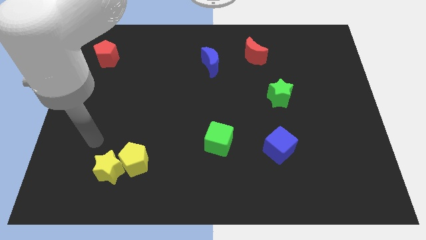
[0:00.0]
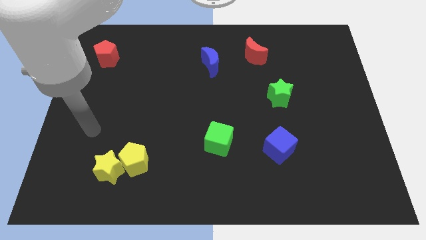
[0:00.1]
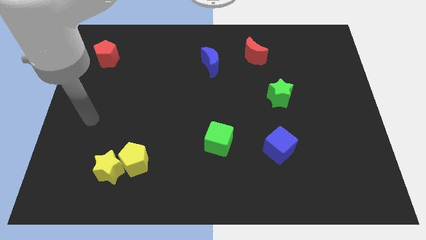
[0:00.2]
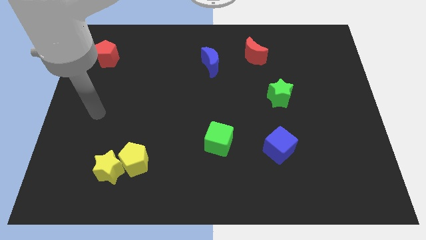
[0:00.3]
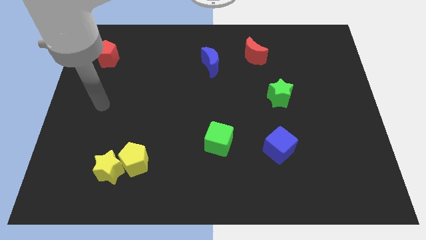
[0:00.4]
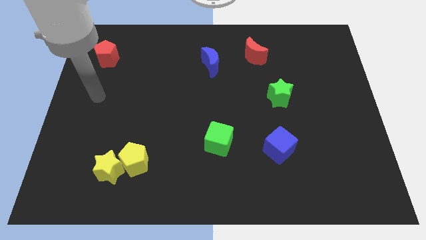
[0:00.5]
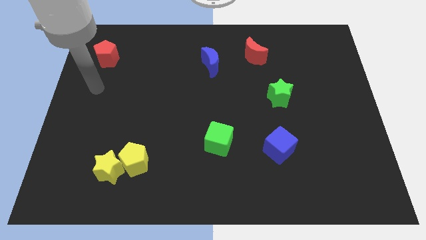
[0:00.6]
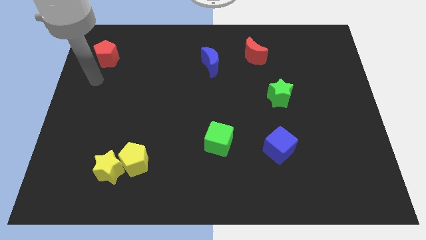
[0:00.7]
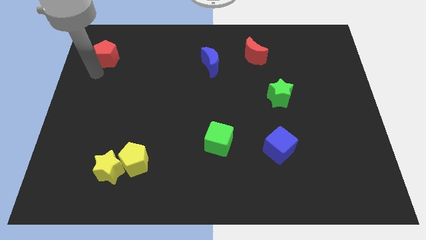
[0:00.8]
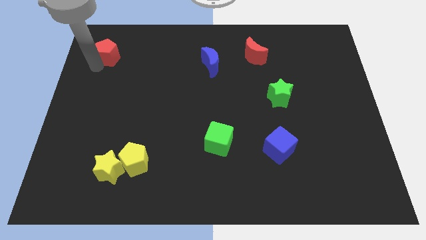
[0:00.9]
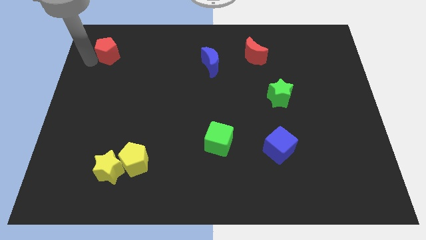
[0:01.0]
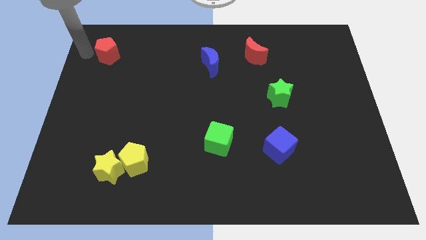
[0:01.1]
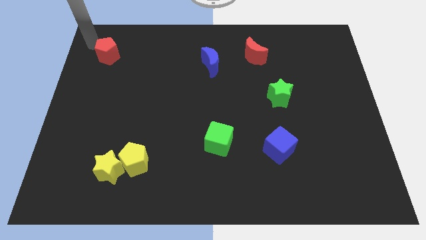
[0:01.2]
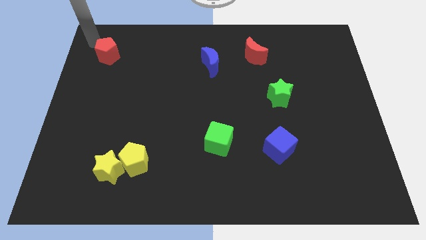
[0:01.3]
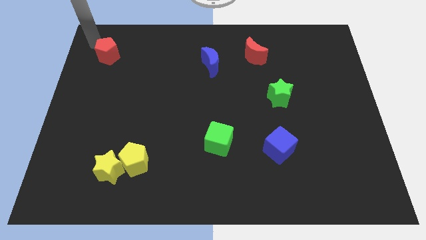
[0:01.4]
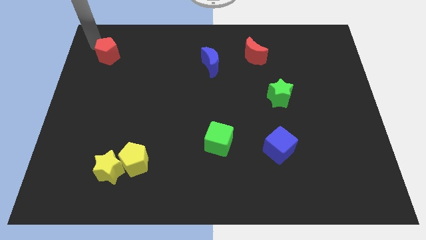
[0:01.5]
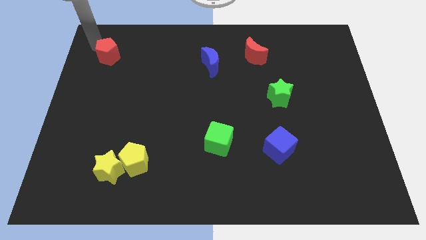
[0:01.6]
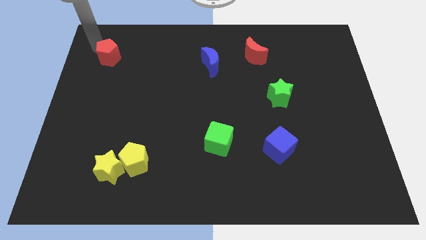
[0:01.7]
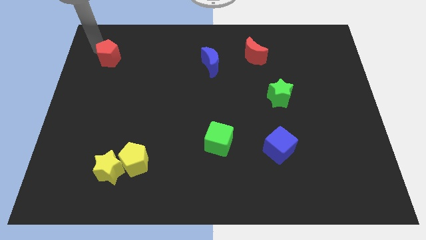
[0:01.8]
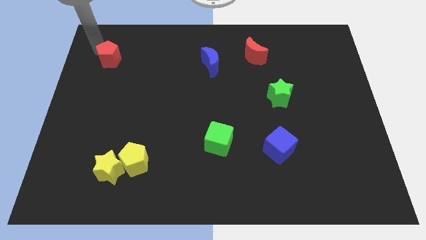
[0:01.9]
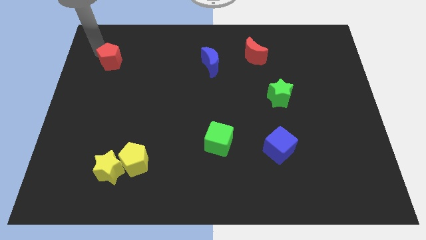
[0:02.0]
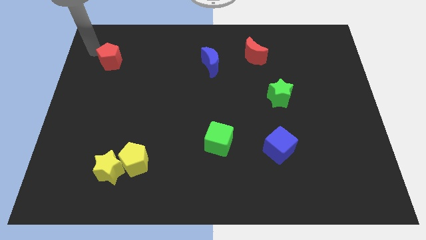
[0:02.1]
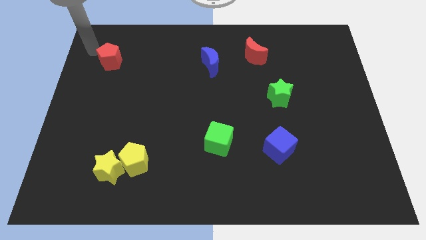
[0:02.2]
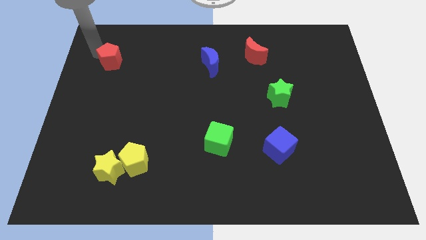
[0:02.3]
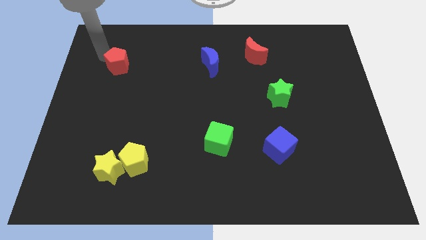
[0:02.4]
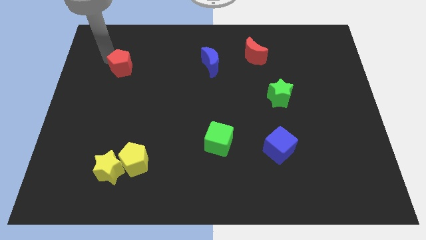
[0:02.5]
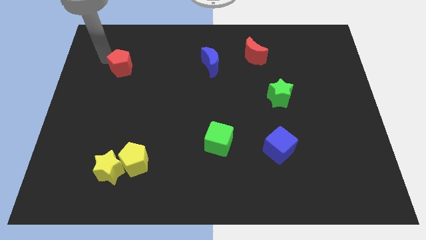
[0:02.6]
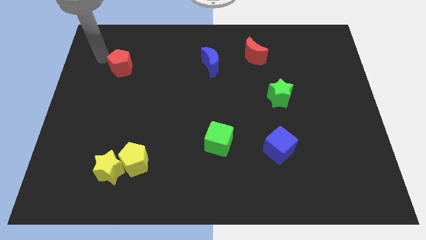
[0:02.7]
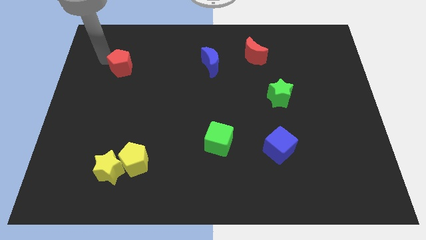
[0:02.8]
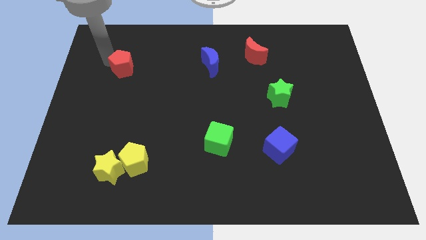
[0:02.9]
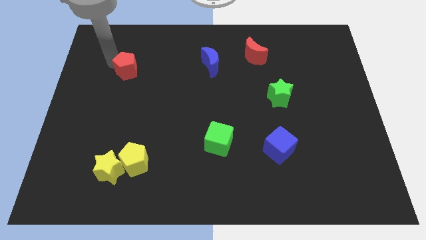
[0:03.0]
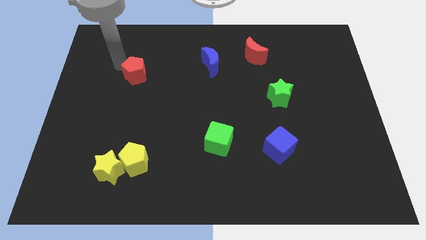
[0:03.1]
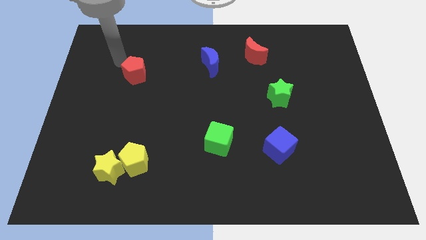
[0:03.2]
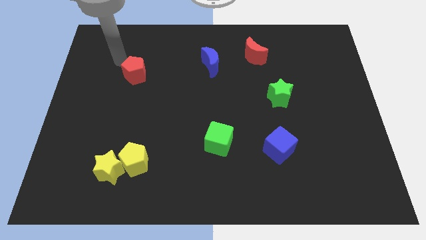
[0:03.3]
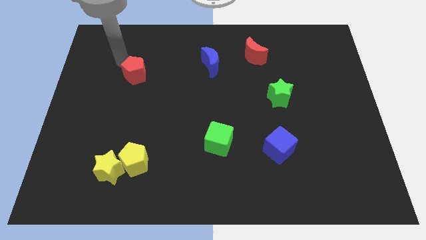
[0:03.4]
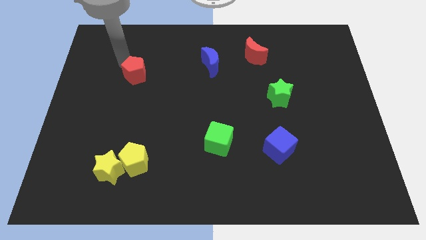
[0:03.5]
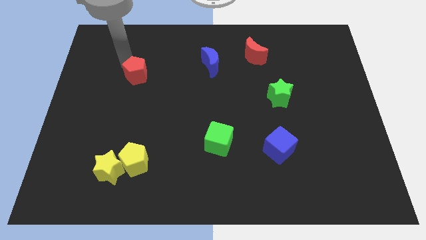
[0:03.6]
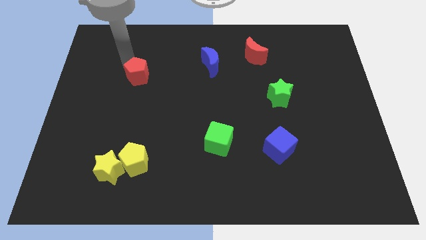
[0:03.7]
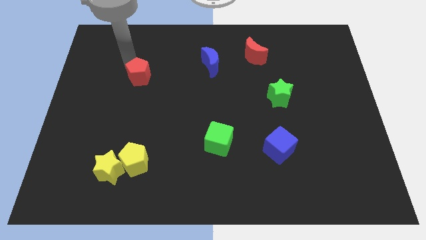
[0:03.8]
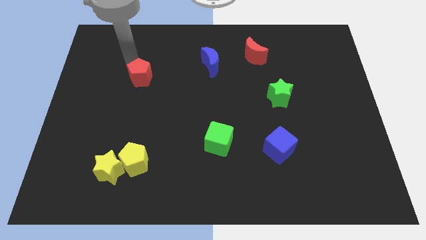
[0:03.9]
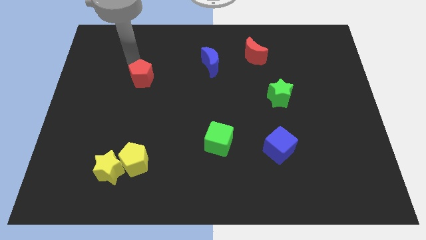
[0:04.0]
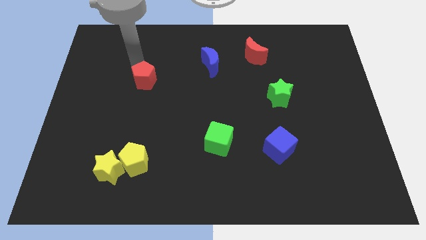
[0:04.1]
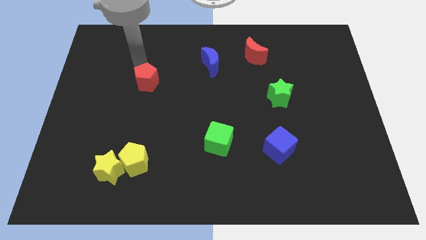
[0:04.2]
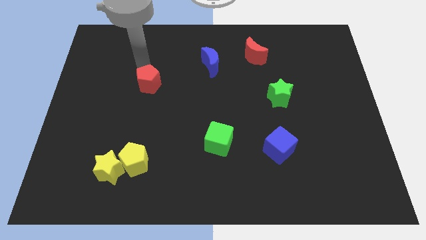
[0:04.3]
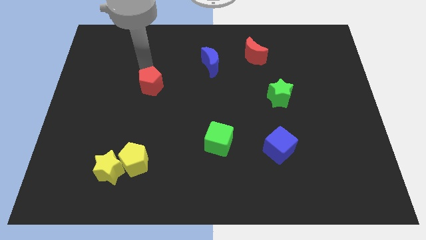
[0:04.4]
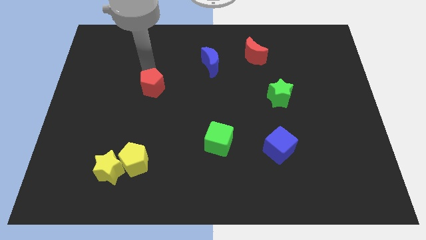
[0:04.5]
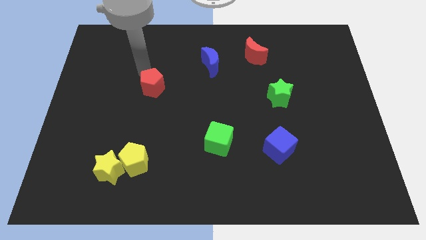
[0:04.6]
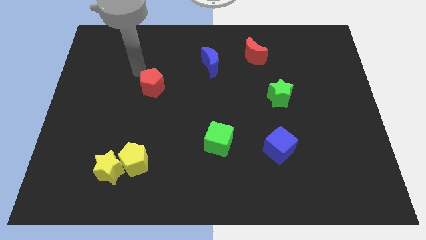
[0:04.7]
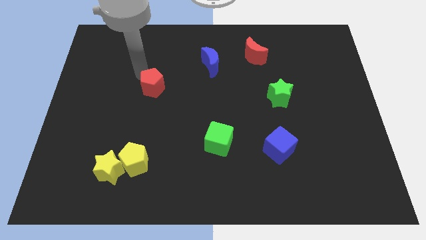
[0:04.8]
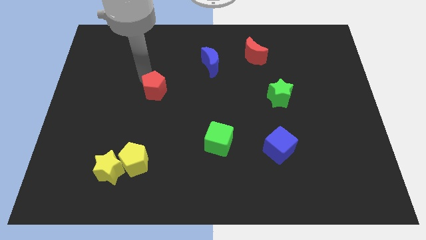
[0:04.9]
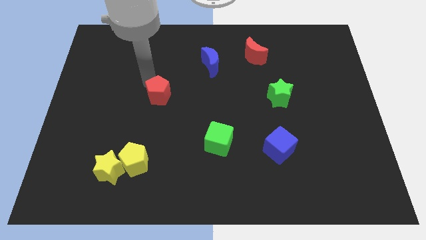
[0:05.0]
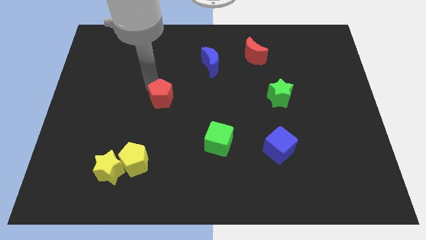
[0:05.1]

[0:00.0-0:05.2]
move the red pentagon downwards and to the right diagonally

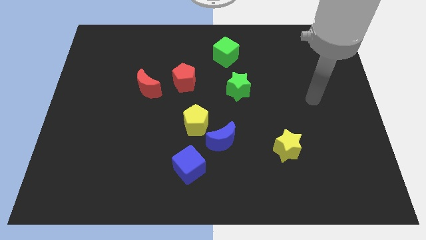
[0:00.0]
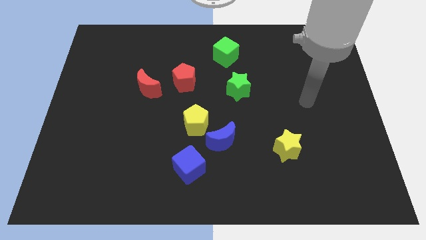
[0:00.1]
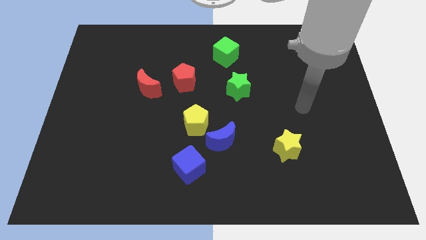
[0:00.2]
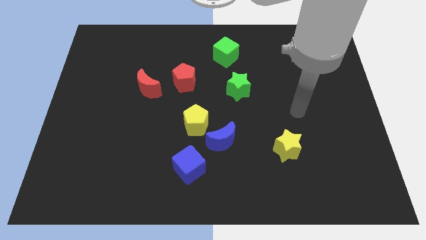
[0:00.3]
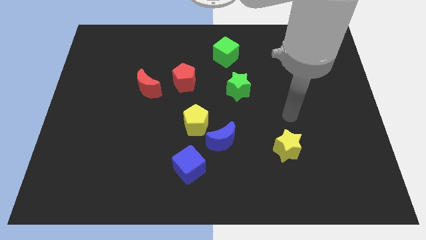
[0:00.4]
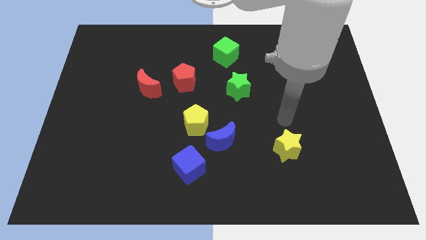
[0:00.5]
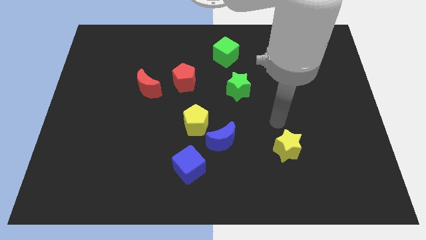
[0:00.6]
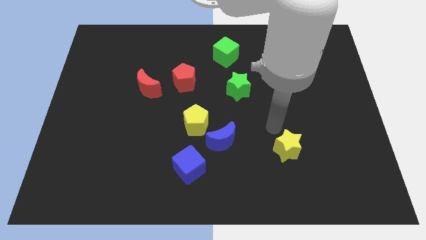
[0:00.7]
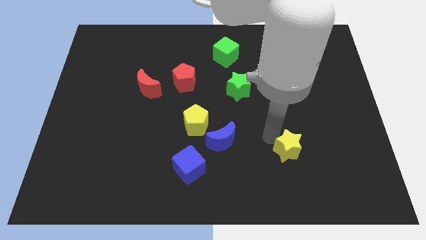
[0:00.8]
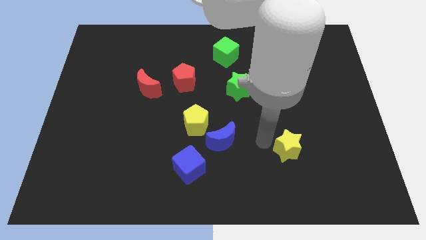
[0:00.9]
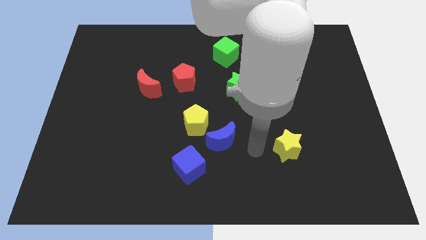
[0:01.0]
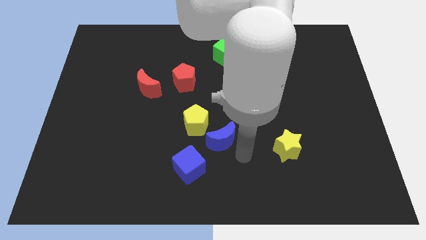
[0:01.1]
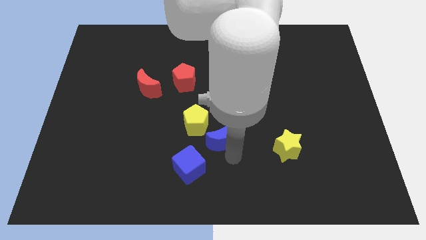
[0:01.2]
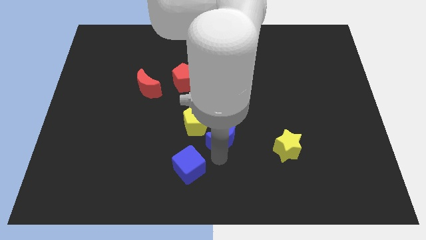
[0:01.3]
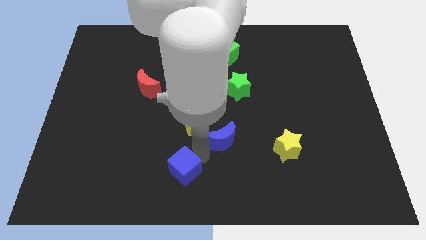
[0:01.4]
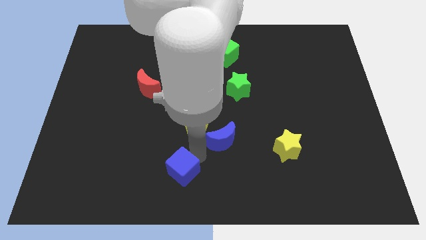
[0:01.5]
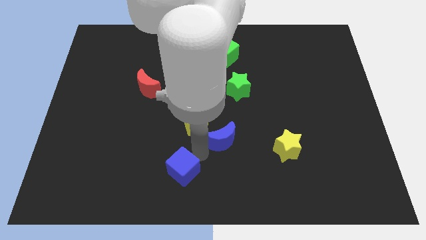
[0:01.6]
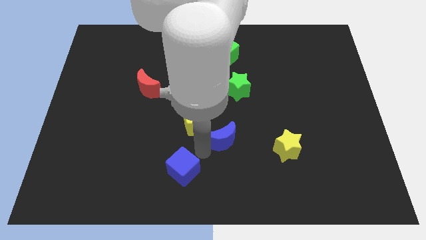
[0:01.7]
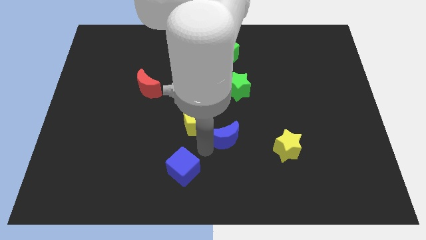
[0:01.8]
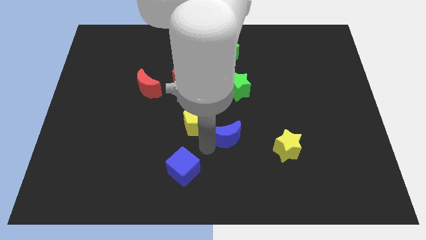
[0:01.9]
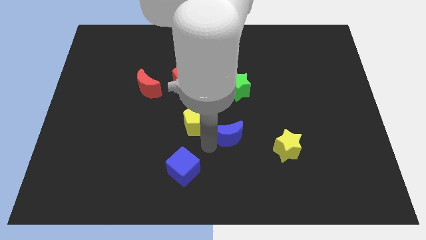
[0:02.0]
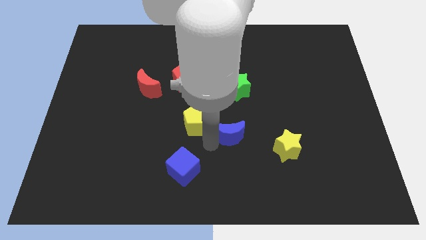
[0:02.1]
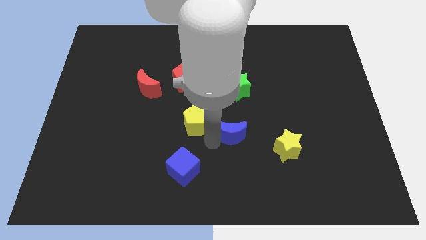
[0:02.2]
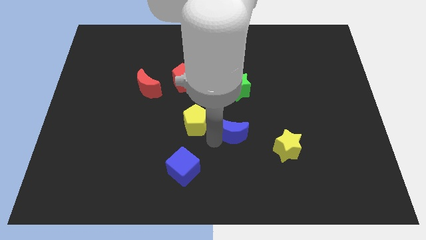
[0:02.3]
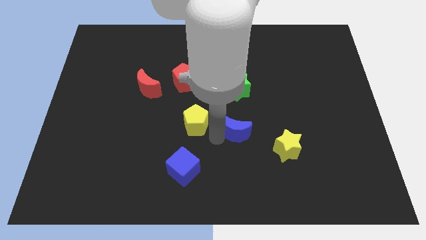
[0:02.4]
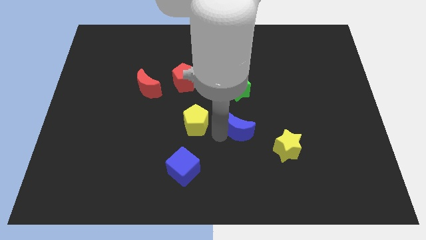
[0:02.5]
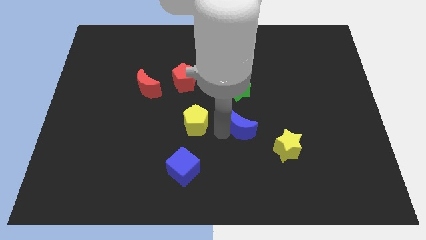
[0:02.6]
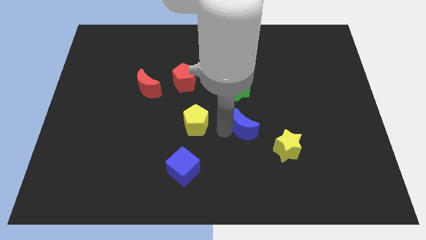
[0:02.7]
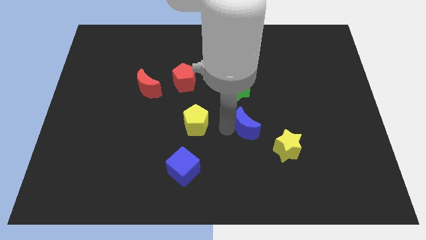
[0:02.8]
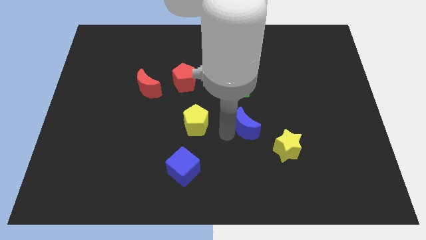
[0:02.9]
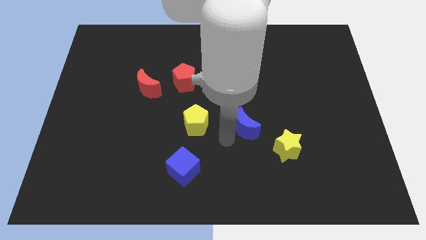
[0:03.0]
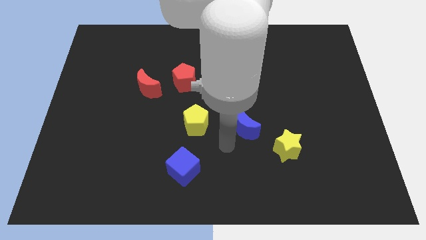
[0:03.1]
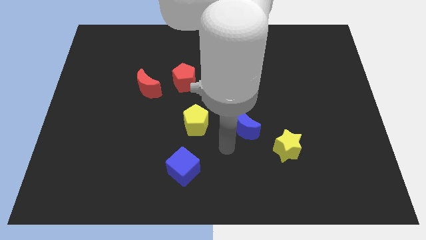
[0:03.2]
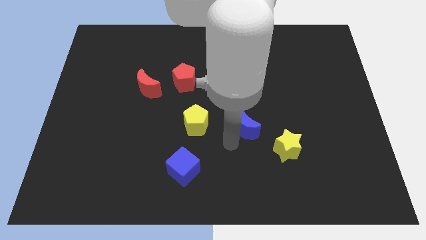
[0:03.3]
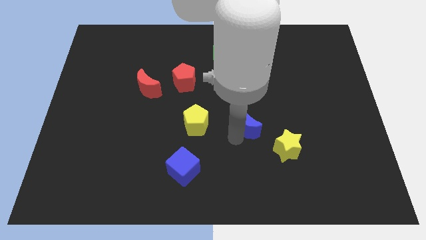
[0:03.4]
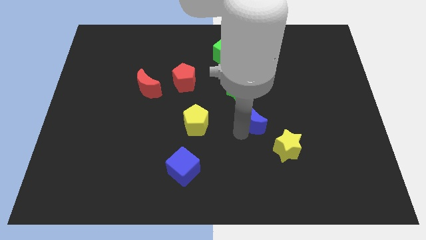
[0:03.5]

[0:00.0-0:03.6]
slightly slide the blue moon upwards and then to the right
